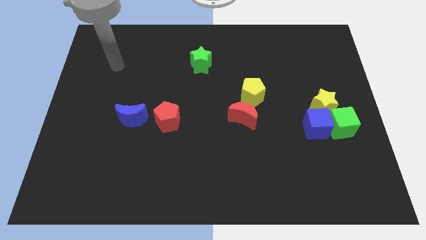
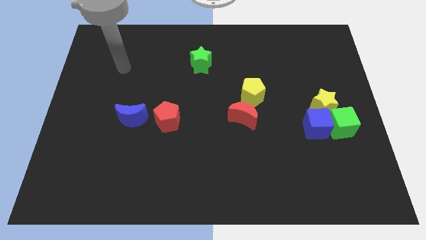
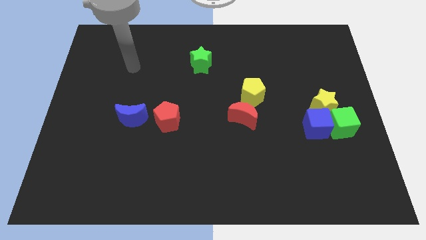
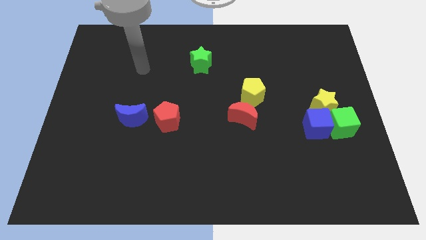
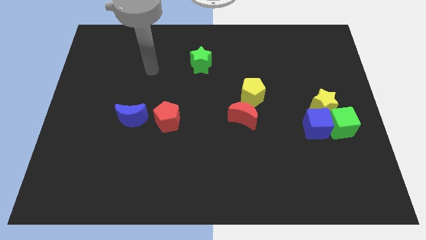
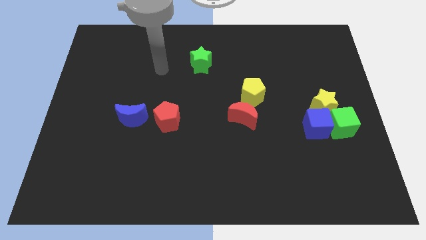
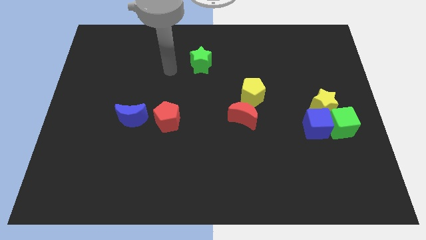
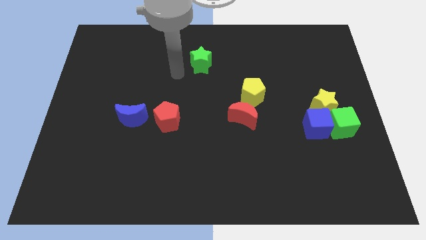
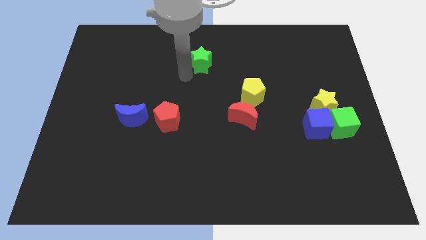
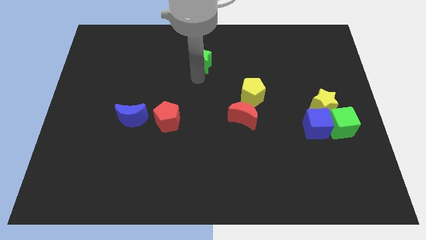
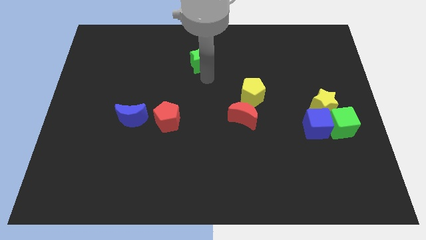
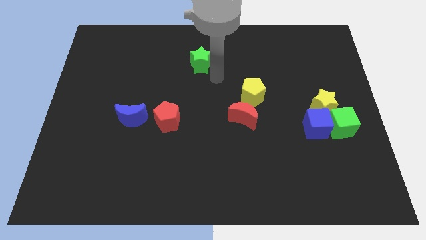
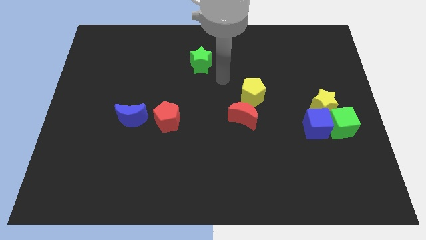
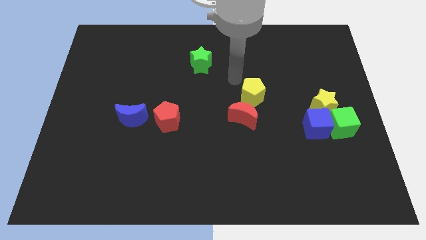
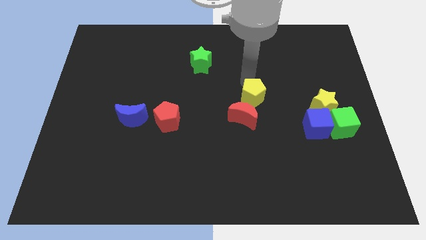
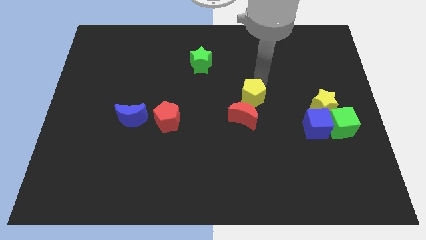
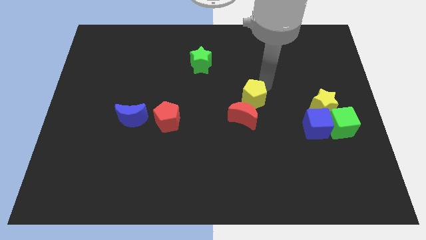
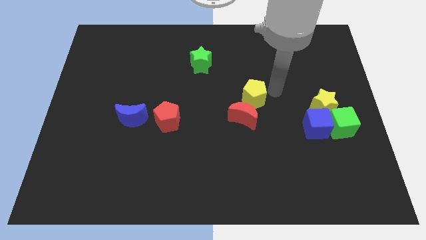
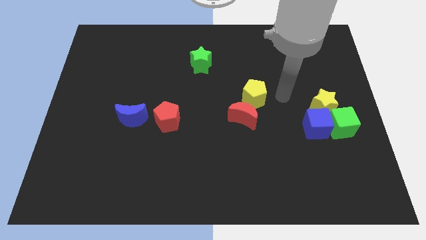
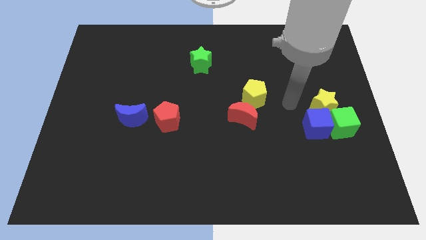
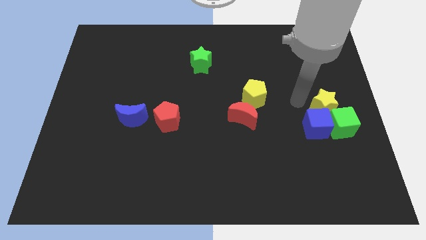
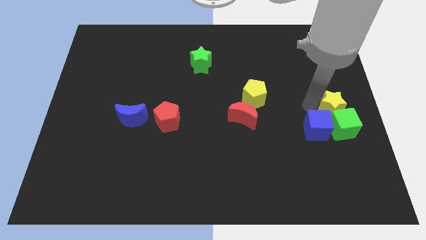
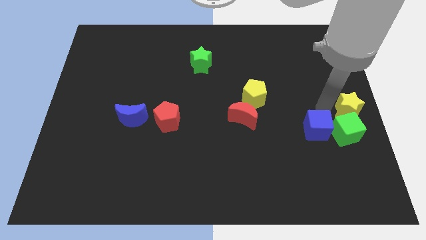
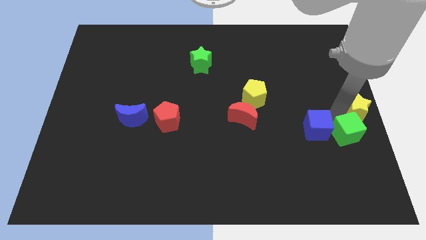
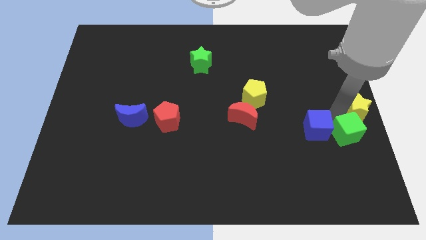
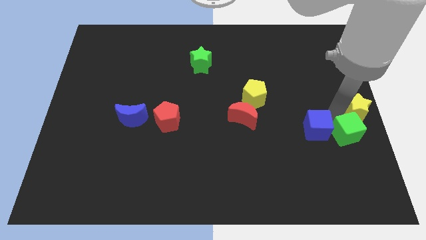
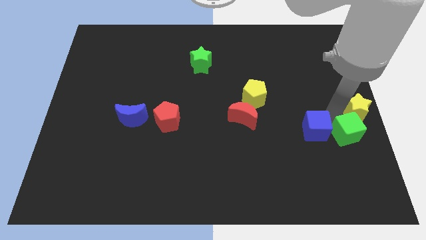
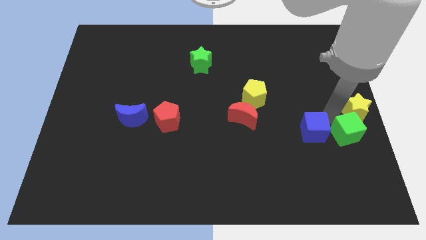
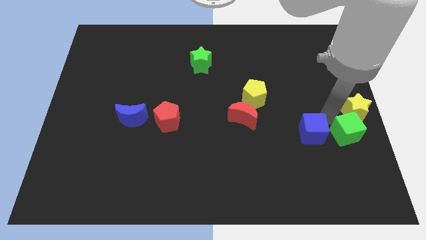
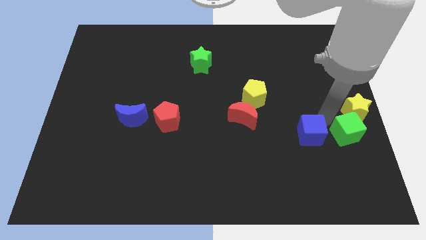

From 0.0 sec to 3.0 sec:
move the blue cube away from the green cube and yellow star

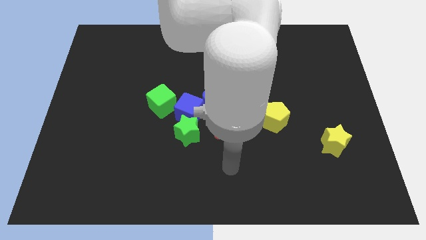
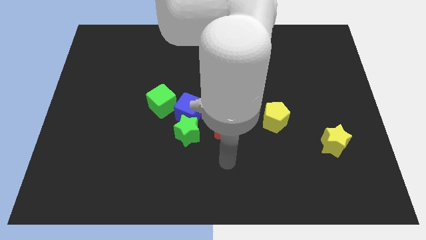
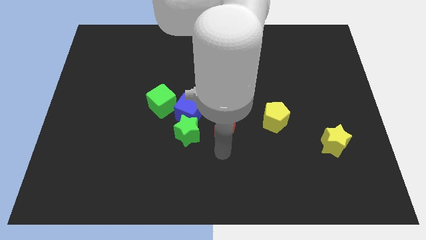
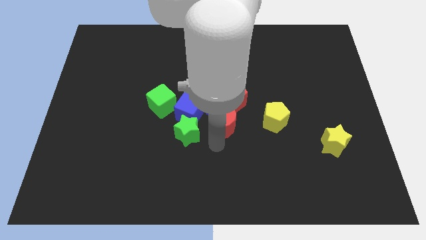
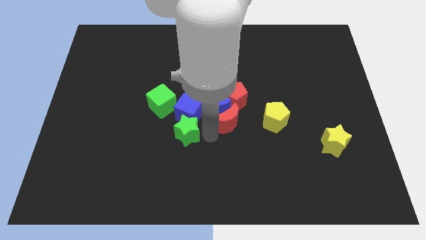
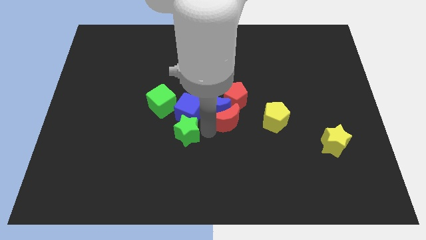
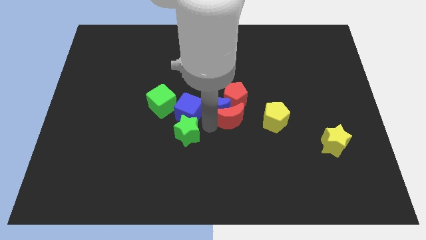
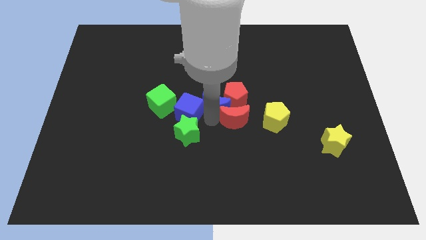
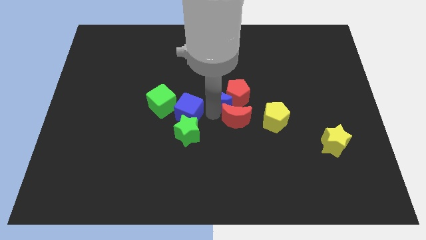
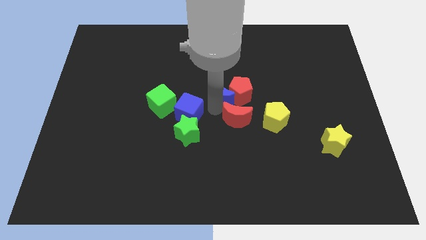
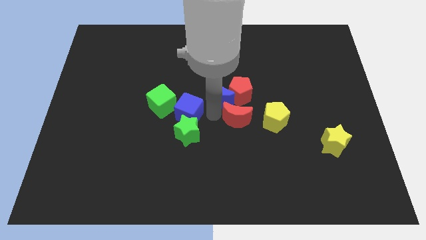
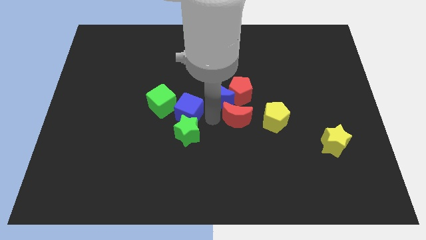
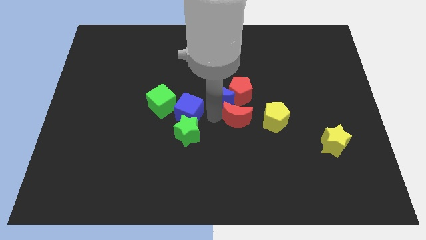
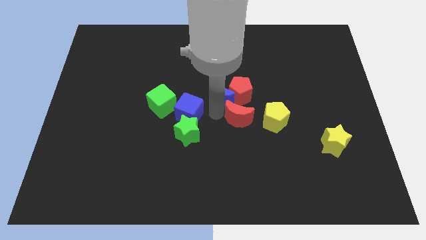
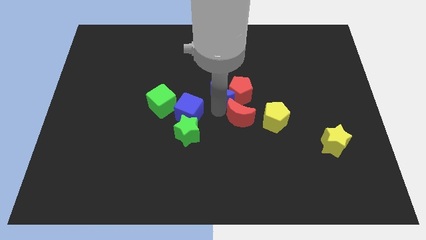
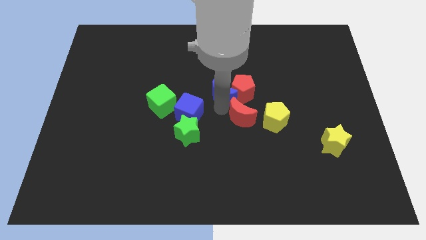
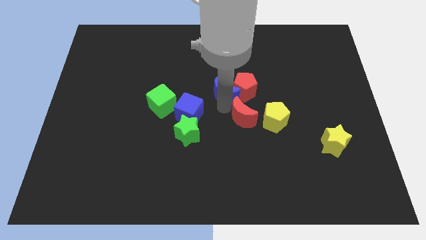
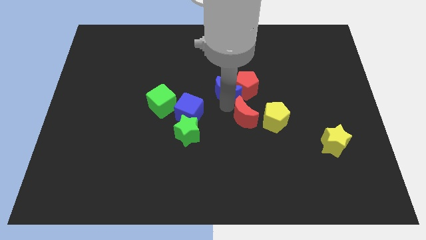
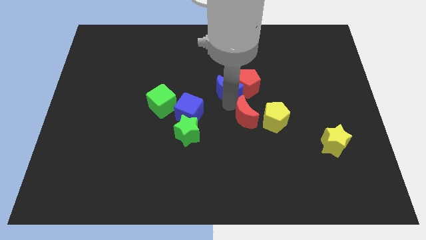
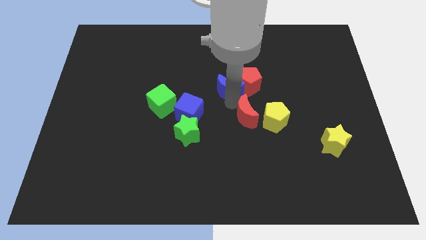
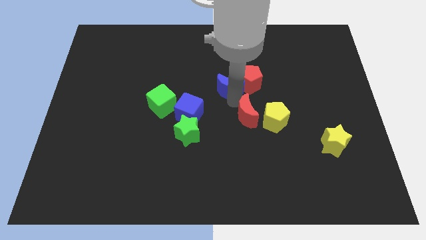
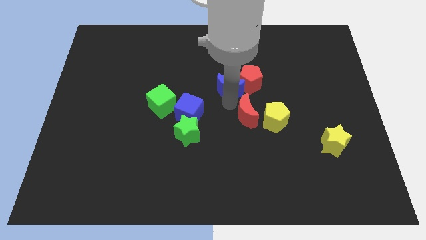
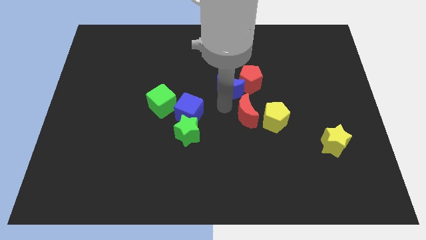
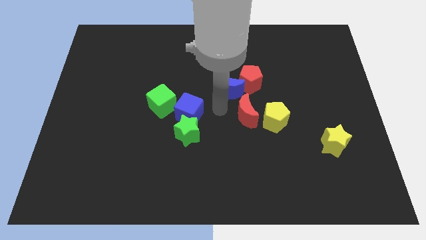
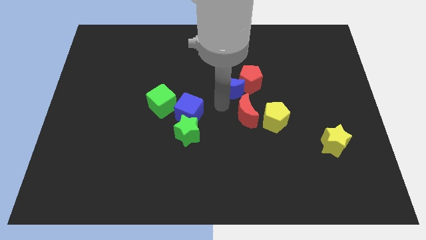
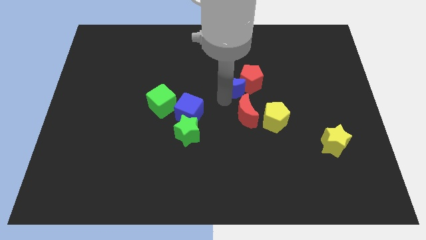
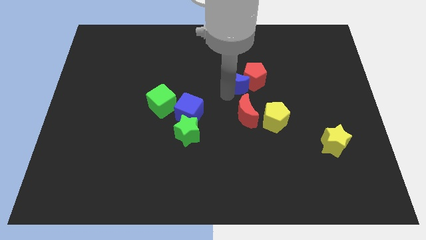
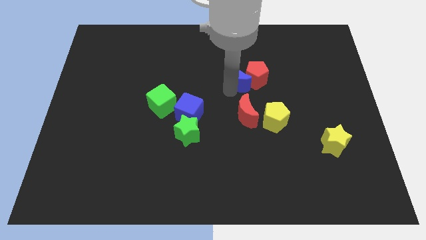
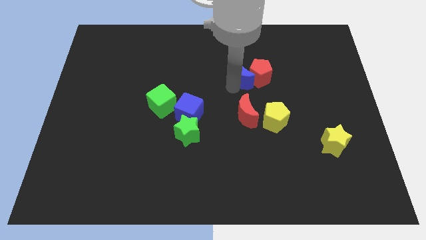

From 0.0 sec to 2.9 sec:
move the blue moon away from the group of blocks

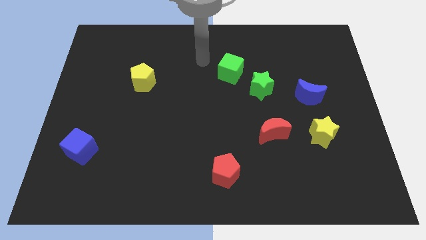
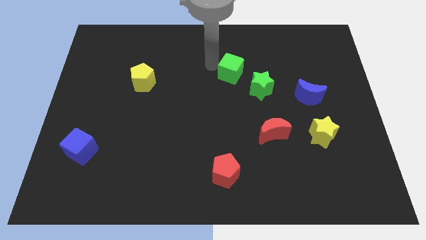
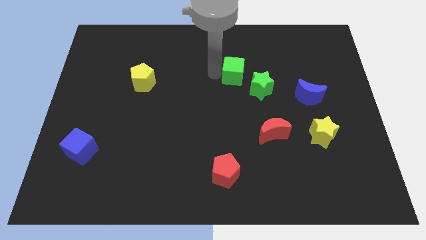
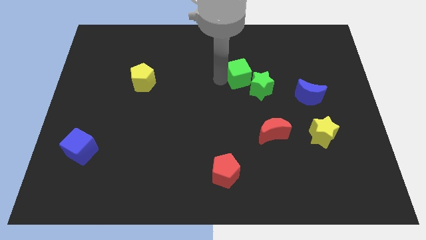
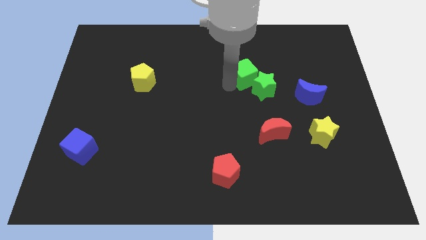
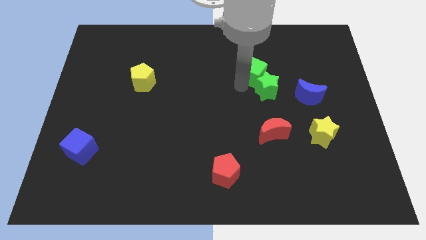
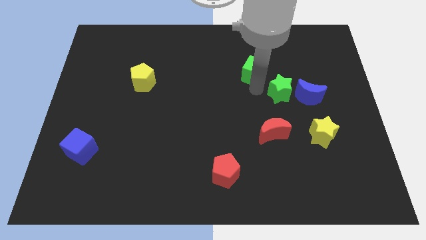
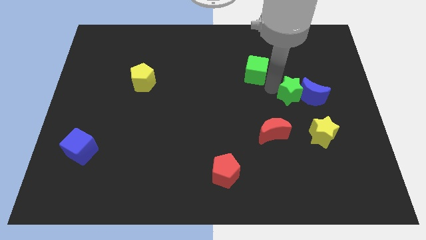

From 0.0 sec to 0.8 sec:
move the green cube away from the green star

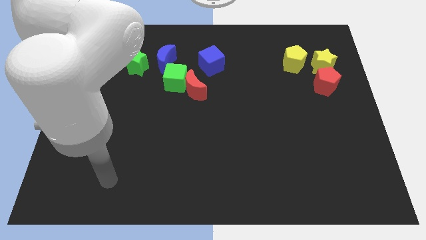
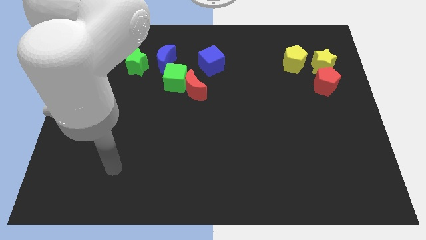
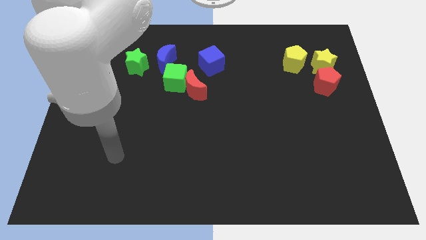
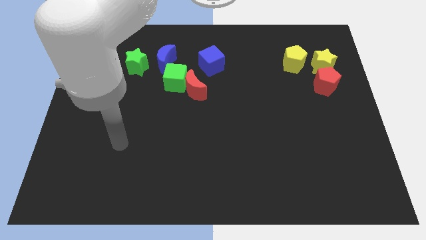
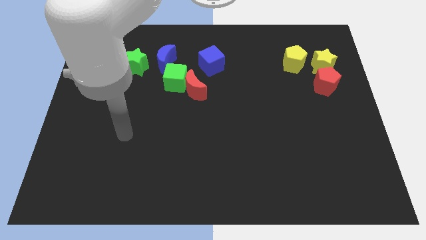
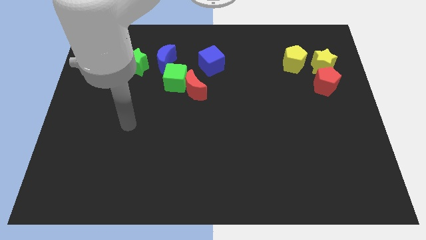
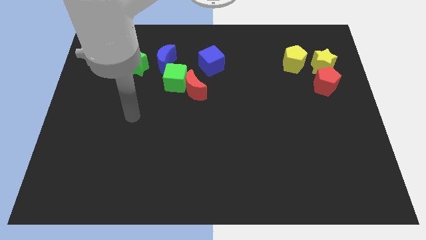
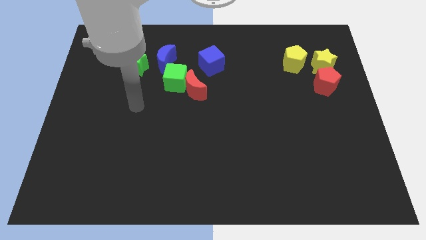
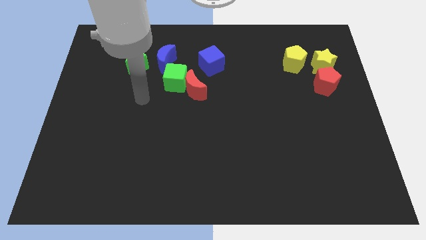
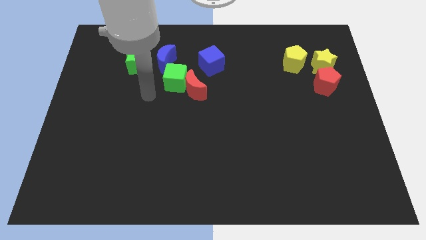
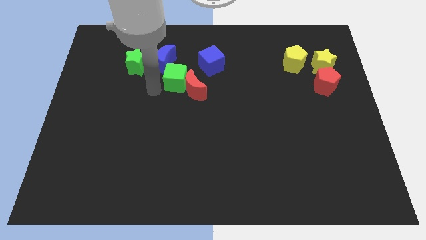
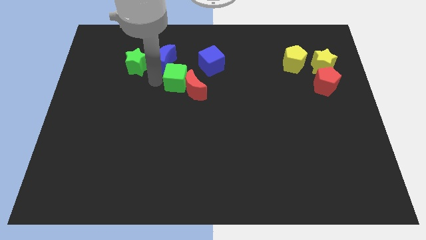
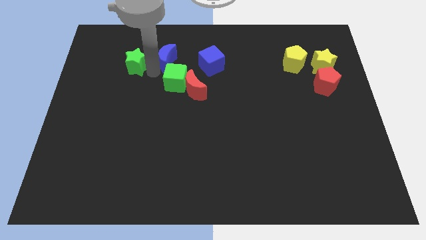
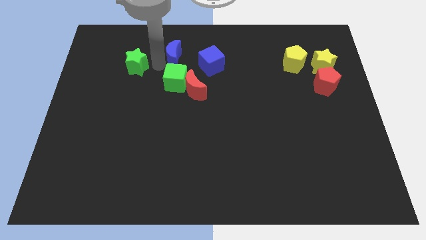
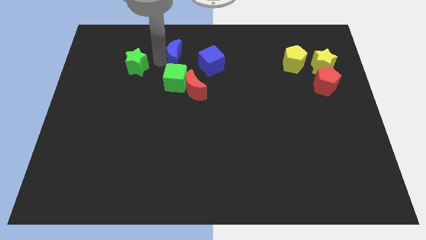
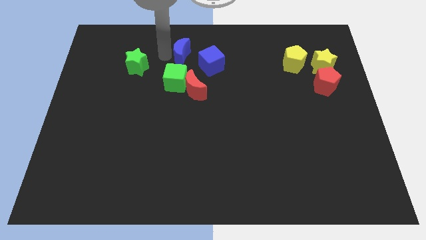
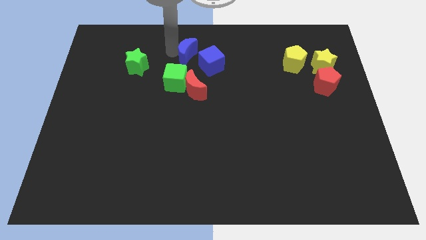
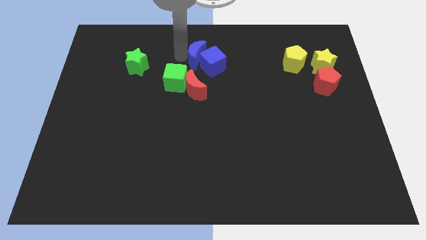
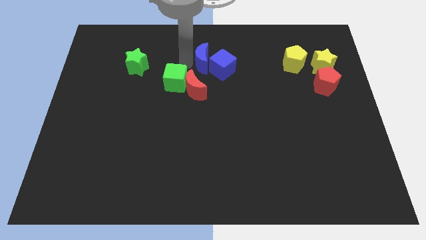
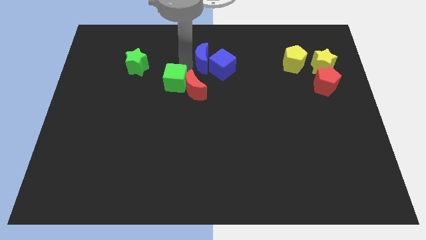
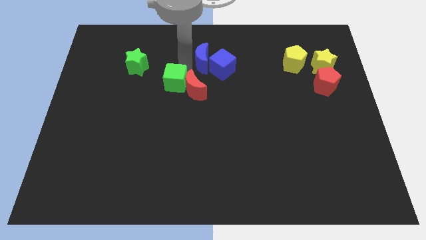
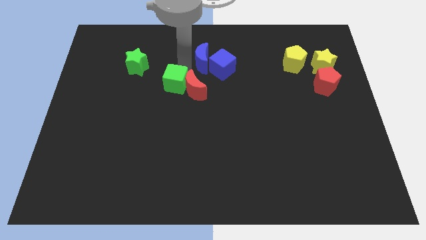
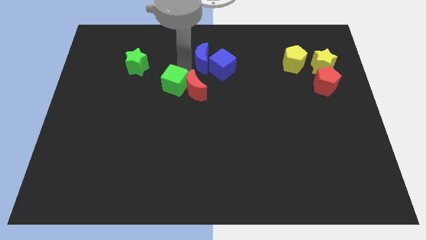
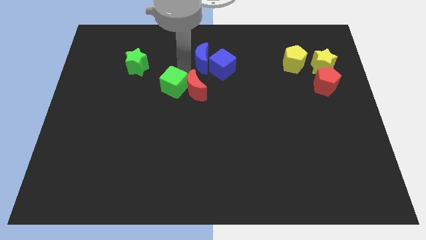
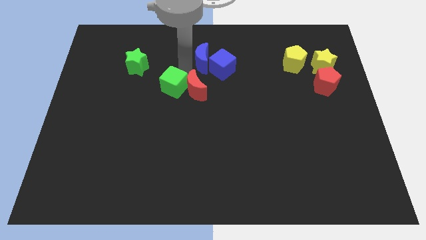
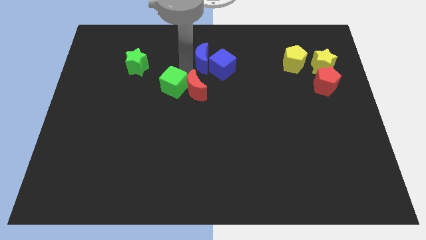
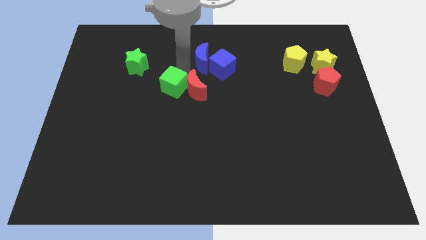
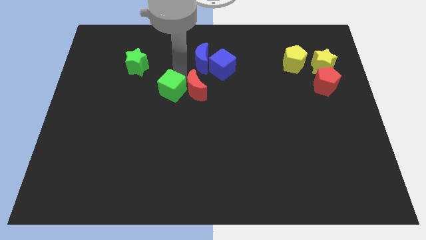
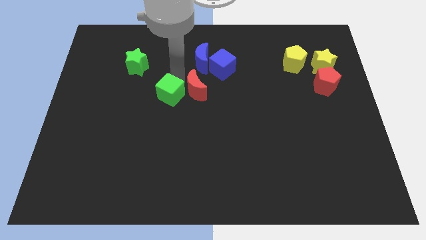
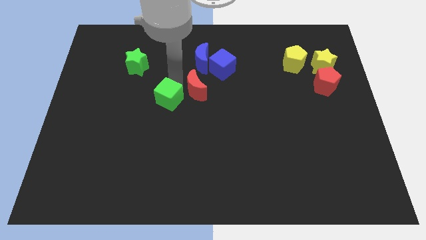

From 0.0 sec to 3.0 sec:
separate the green cube from the red moon and blue moon
